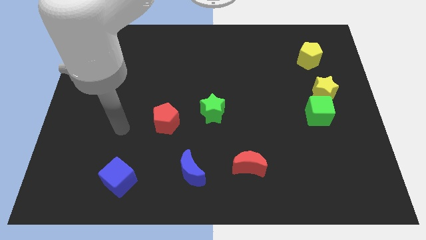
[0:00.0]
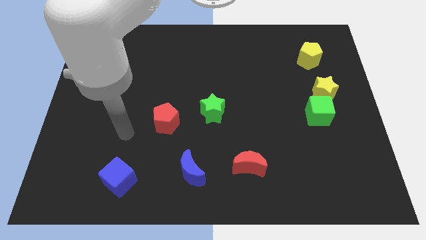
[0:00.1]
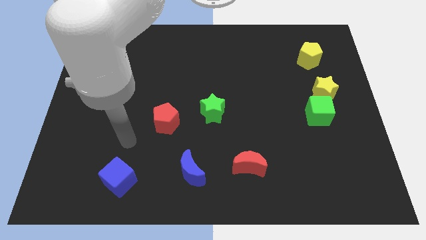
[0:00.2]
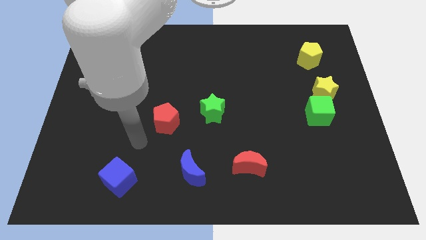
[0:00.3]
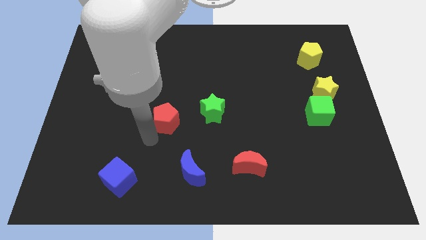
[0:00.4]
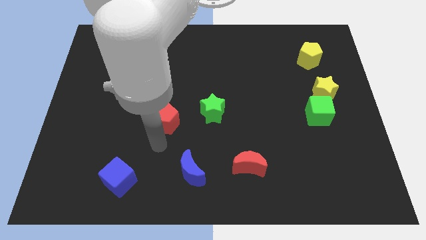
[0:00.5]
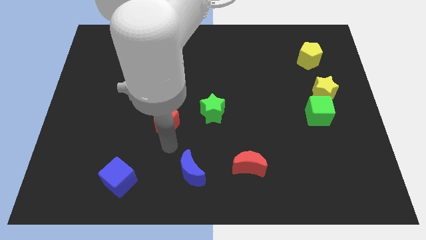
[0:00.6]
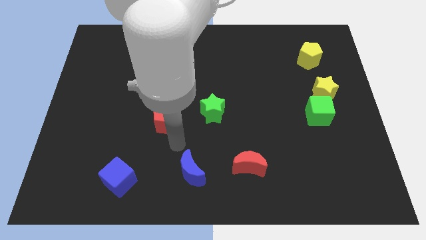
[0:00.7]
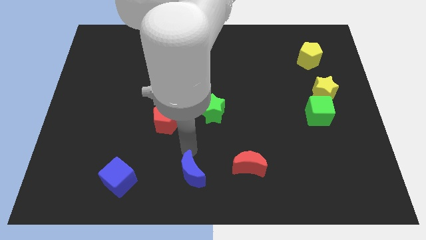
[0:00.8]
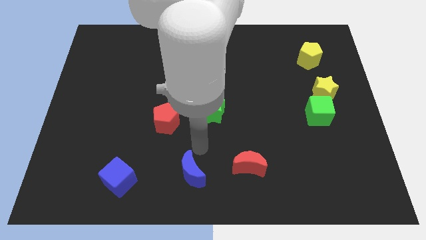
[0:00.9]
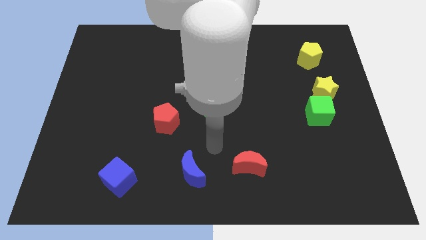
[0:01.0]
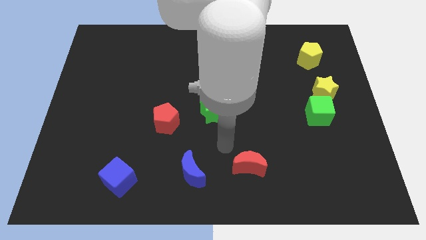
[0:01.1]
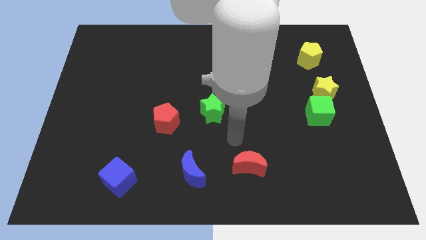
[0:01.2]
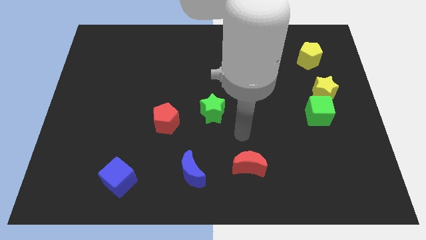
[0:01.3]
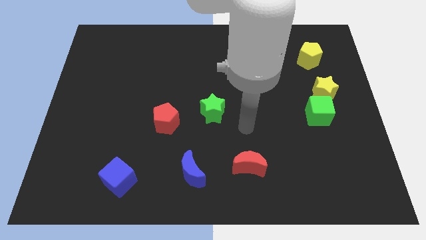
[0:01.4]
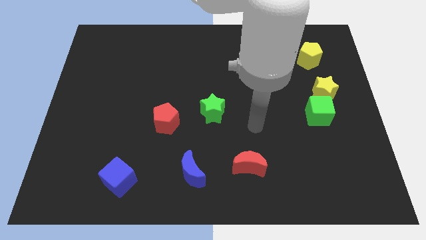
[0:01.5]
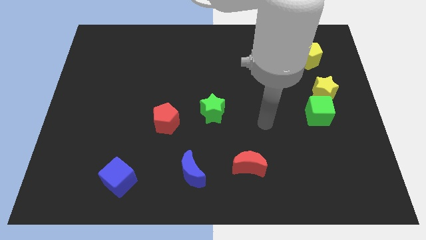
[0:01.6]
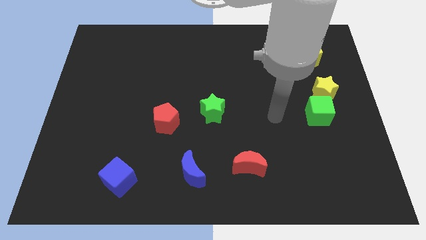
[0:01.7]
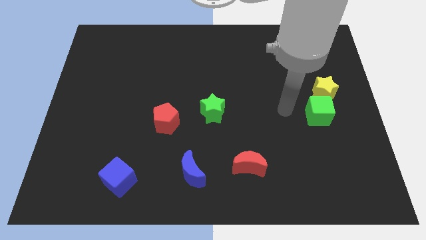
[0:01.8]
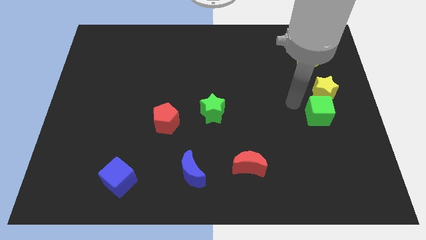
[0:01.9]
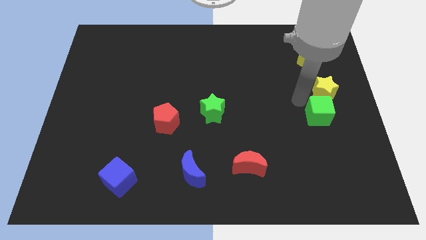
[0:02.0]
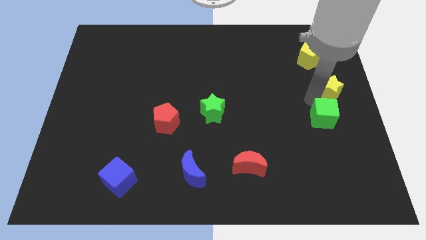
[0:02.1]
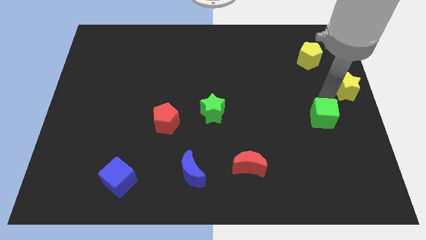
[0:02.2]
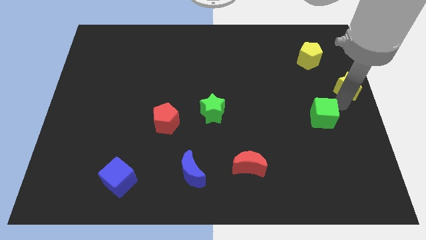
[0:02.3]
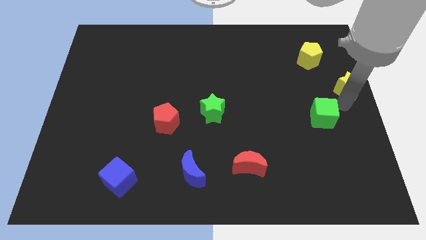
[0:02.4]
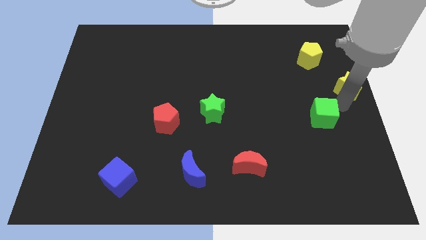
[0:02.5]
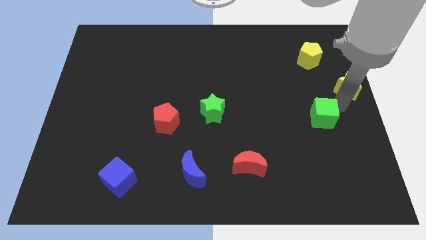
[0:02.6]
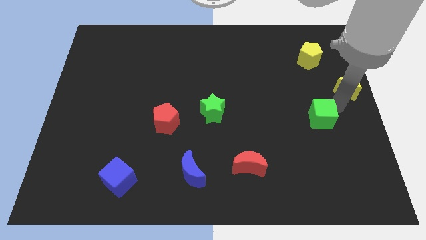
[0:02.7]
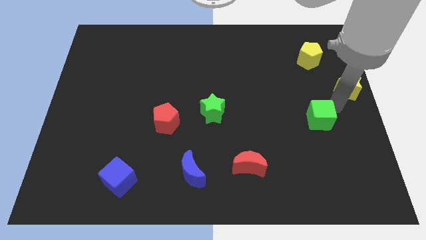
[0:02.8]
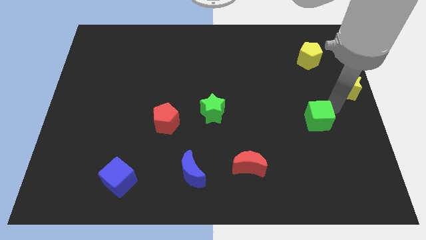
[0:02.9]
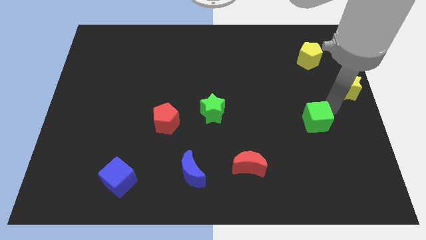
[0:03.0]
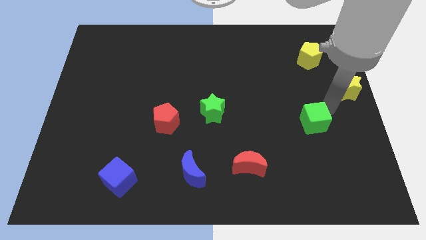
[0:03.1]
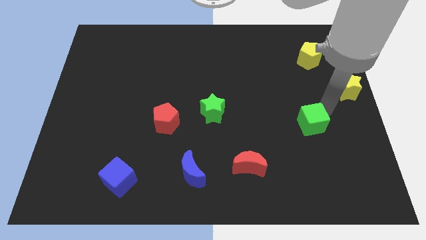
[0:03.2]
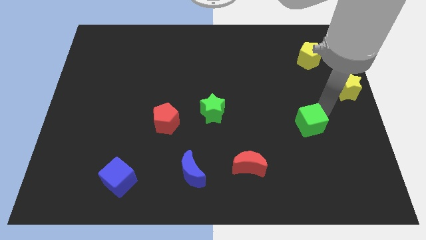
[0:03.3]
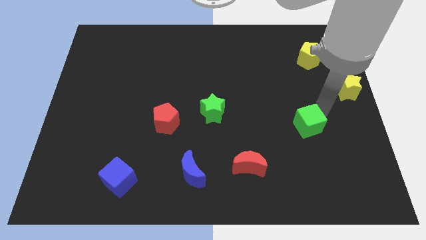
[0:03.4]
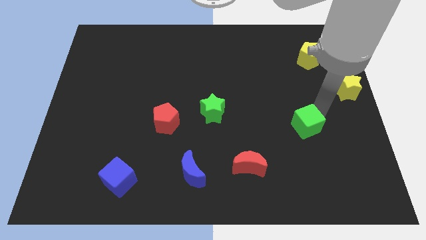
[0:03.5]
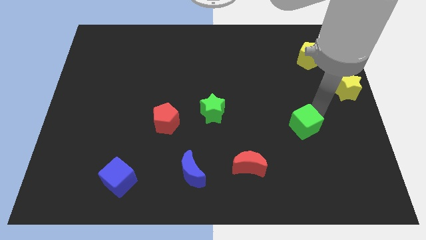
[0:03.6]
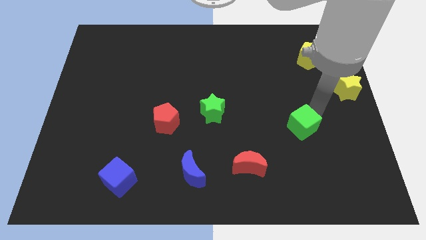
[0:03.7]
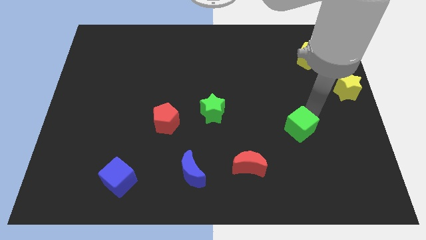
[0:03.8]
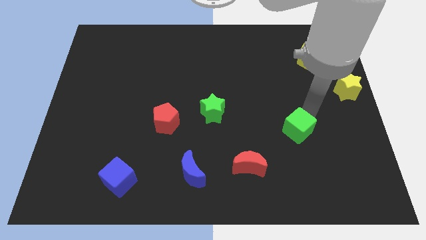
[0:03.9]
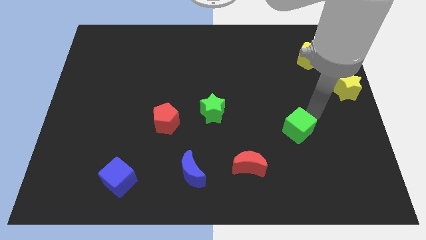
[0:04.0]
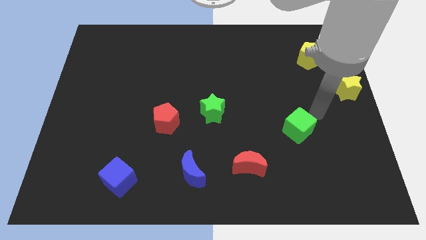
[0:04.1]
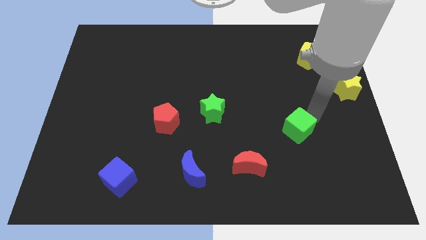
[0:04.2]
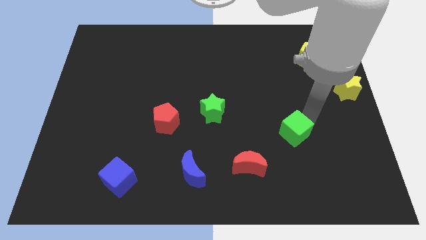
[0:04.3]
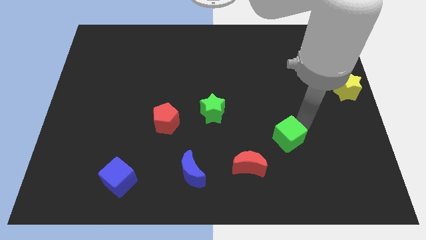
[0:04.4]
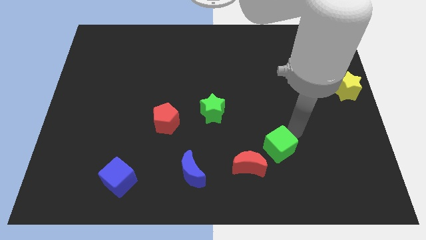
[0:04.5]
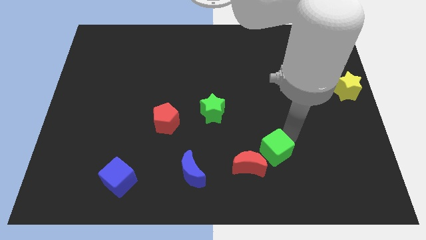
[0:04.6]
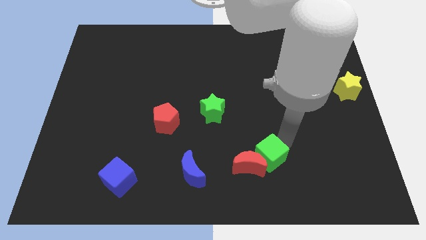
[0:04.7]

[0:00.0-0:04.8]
slide the green cube to the red moon

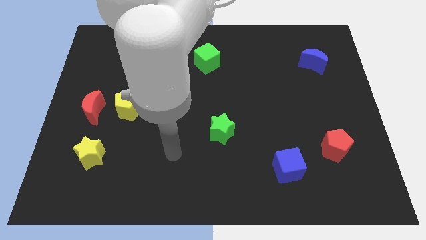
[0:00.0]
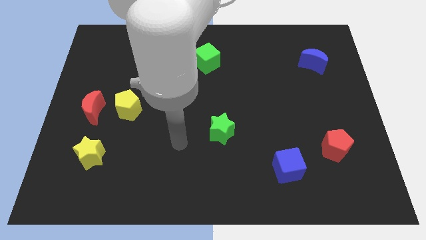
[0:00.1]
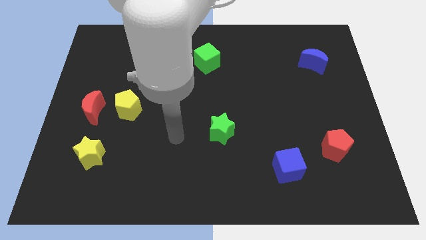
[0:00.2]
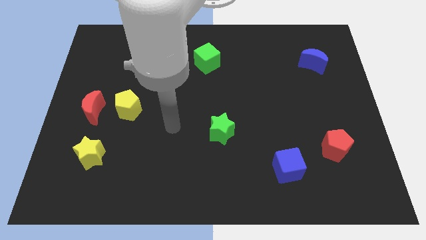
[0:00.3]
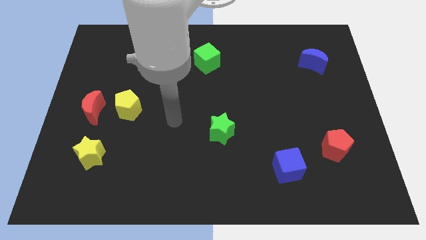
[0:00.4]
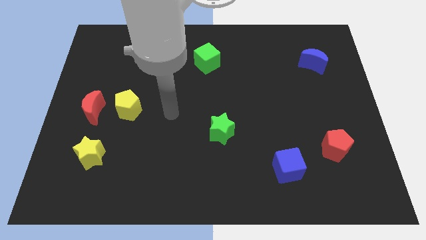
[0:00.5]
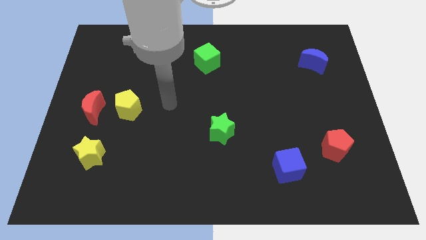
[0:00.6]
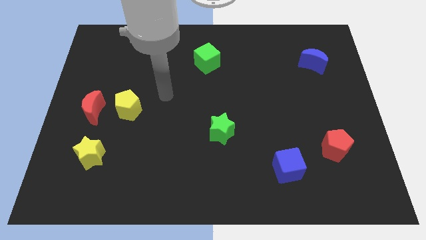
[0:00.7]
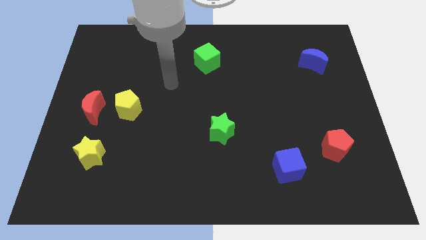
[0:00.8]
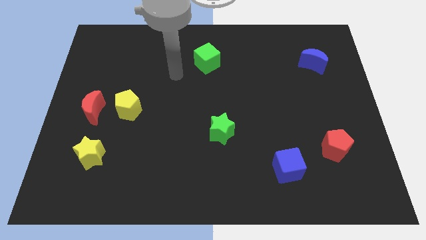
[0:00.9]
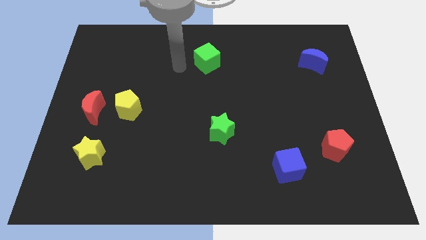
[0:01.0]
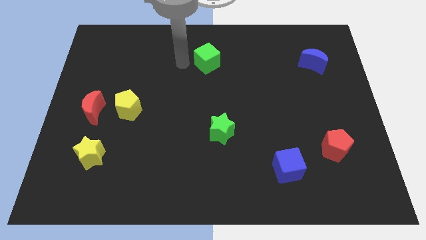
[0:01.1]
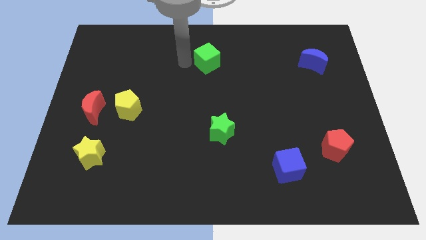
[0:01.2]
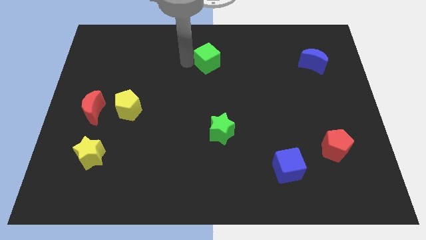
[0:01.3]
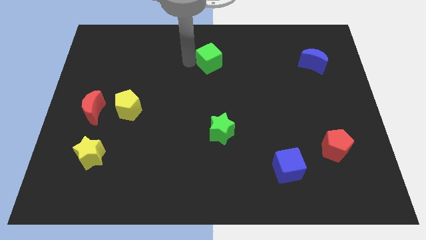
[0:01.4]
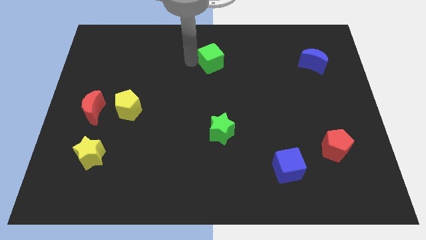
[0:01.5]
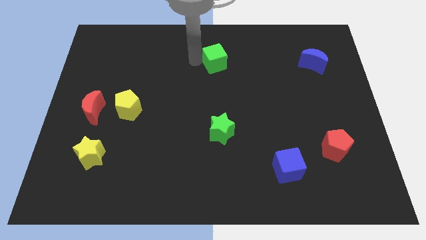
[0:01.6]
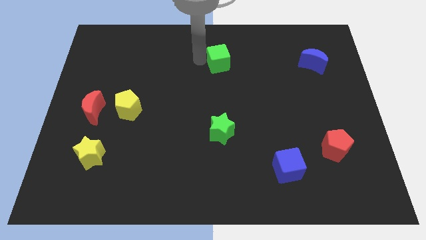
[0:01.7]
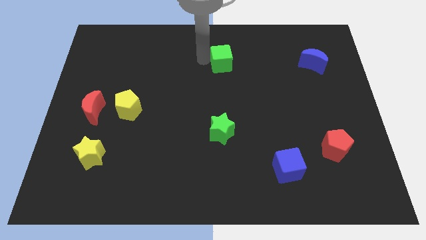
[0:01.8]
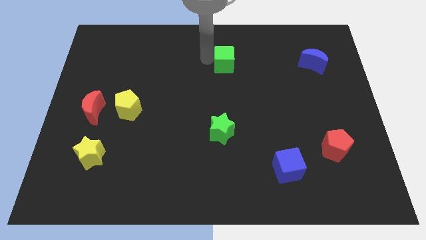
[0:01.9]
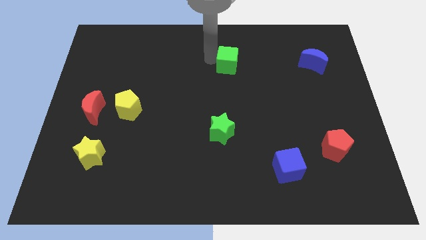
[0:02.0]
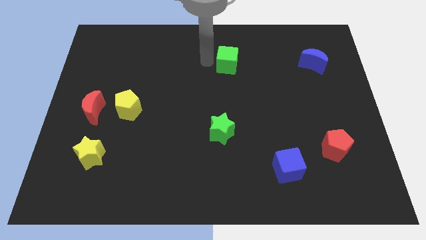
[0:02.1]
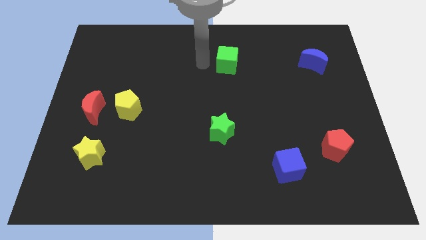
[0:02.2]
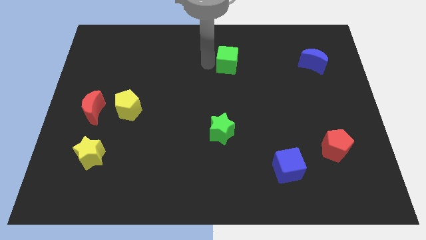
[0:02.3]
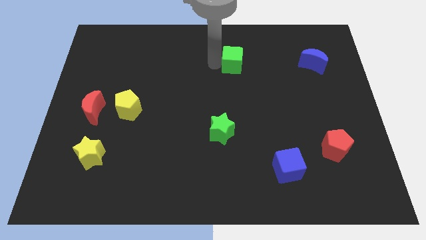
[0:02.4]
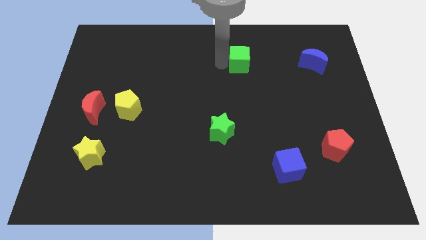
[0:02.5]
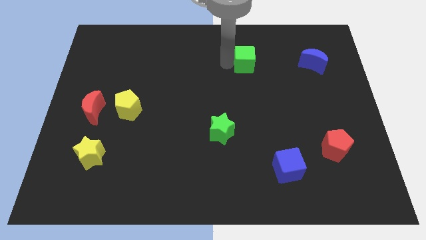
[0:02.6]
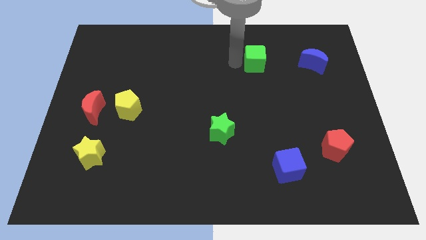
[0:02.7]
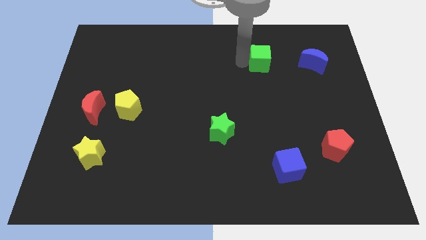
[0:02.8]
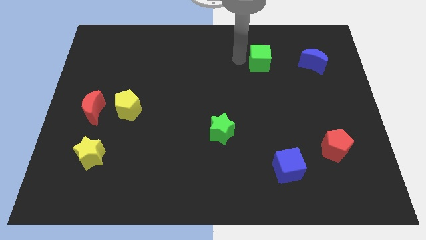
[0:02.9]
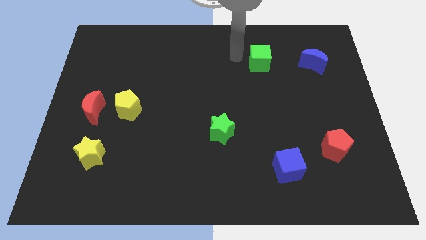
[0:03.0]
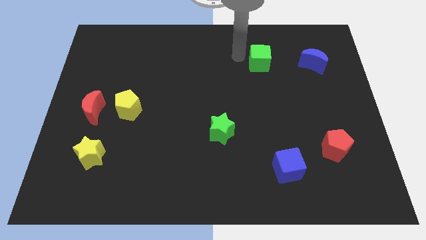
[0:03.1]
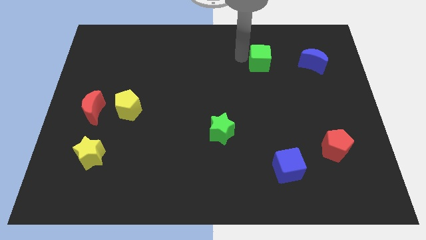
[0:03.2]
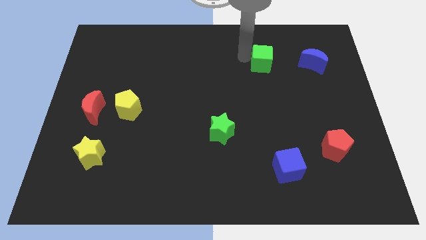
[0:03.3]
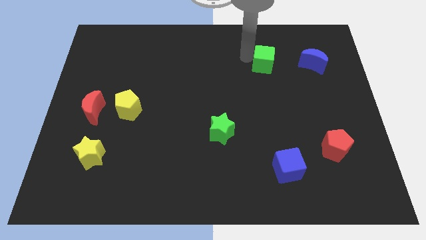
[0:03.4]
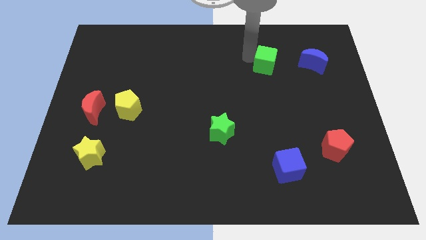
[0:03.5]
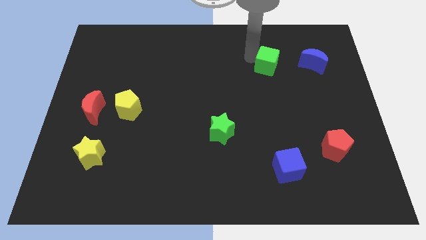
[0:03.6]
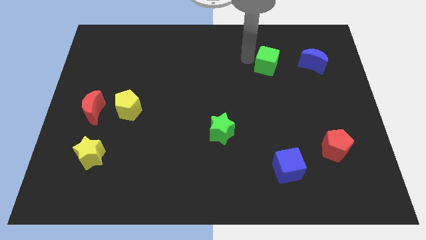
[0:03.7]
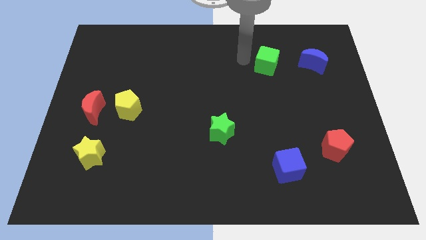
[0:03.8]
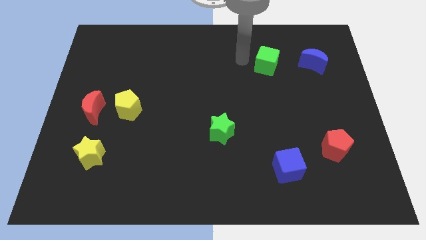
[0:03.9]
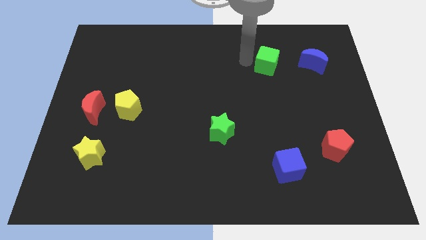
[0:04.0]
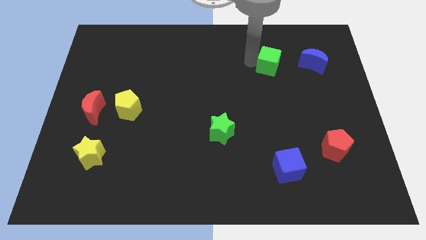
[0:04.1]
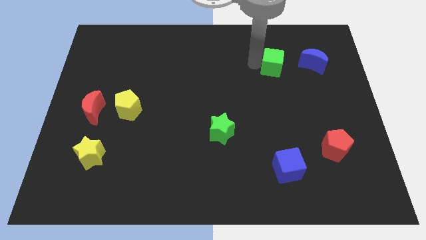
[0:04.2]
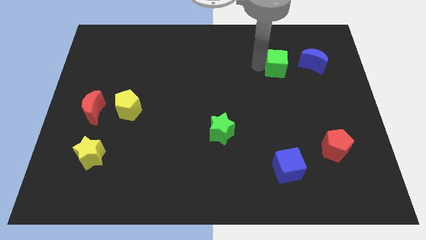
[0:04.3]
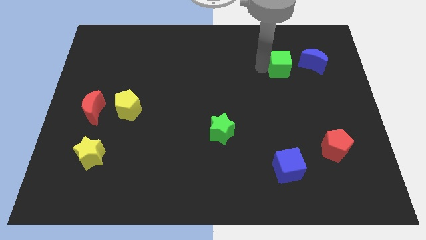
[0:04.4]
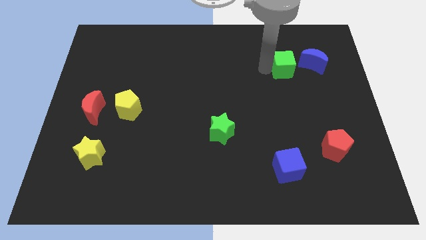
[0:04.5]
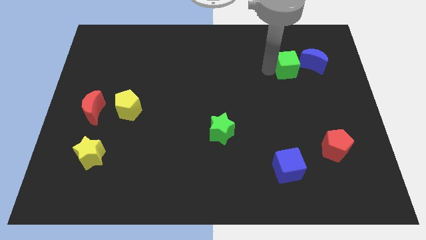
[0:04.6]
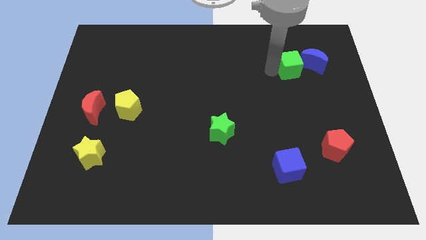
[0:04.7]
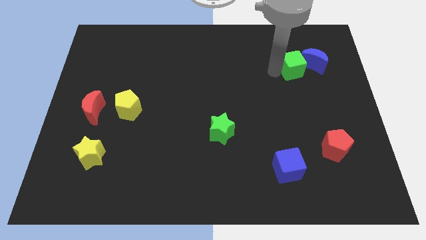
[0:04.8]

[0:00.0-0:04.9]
slide the green cube towards the blue moon
